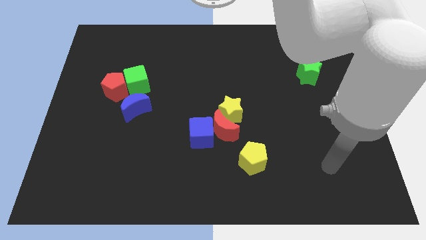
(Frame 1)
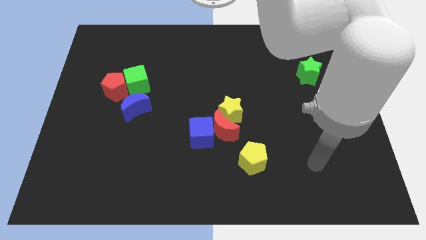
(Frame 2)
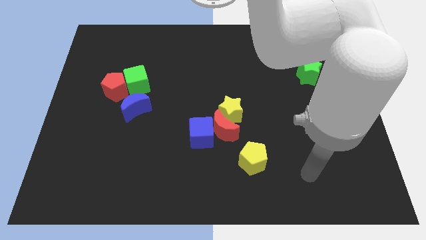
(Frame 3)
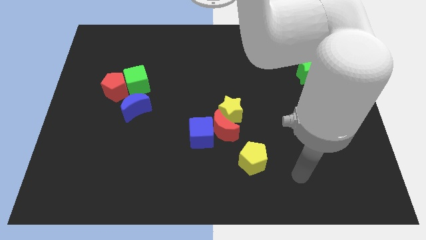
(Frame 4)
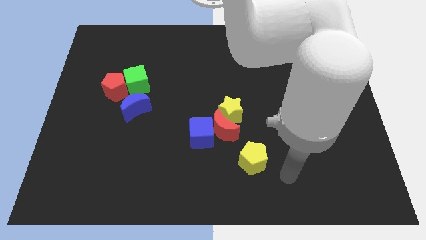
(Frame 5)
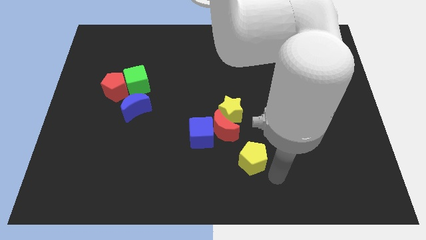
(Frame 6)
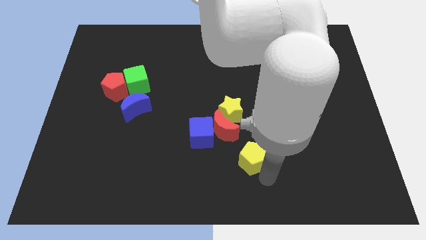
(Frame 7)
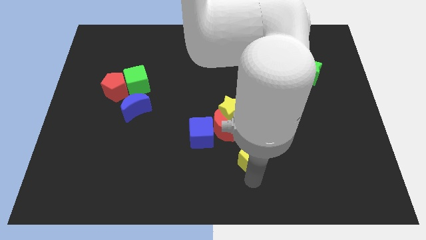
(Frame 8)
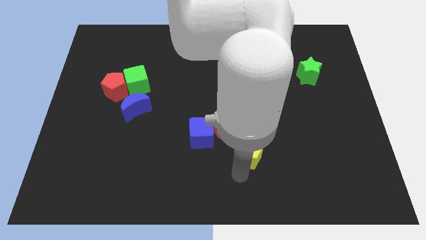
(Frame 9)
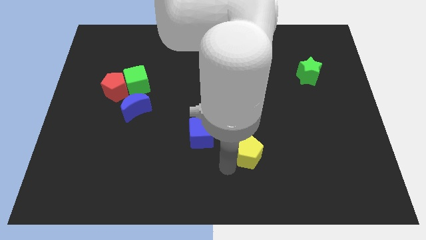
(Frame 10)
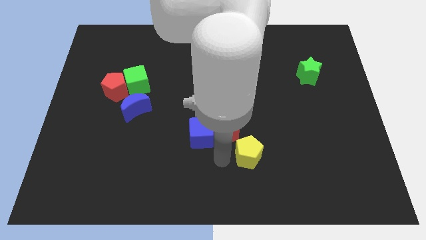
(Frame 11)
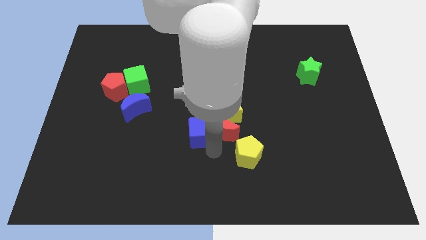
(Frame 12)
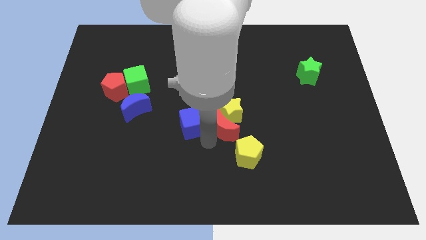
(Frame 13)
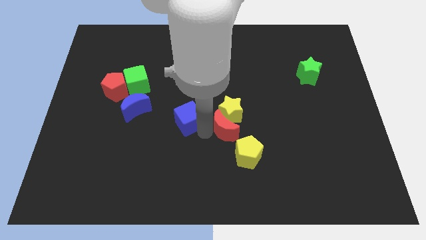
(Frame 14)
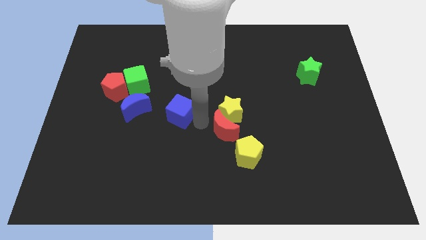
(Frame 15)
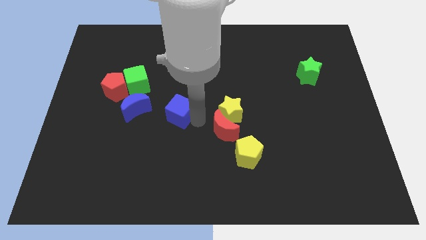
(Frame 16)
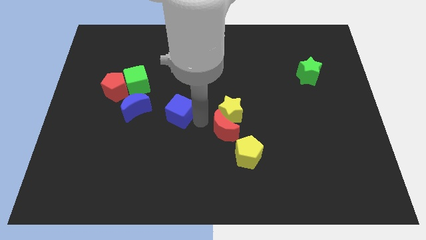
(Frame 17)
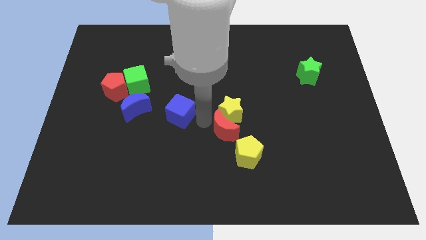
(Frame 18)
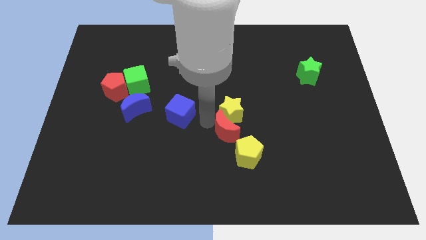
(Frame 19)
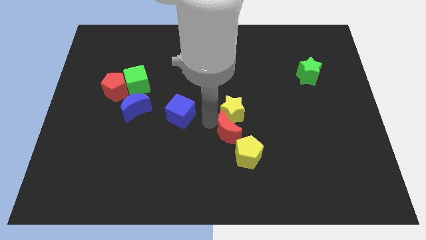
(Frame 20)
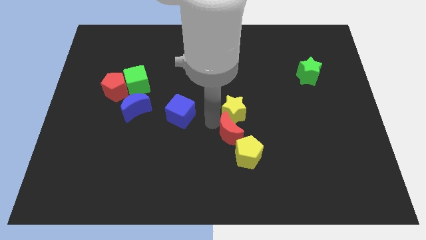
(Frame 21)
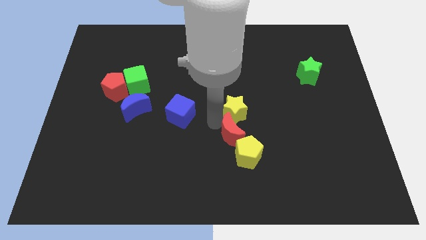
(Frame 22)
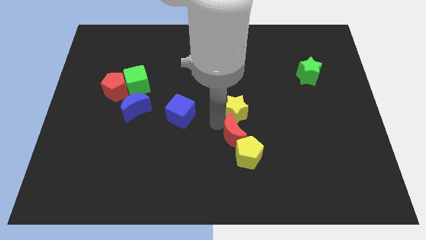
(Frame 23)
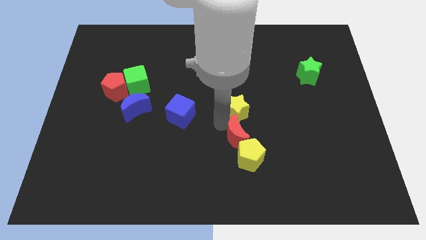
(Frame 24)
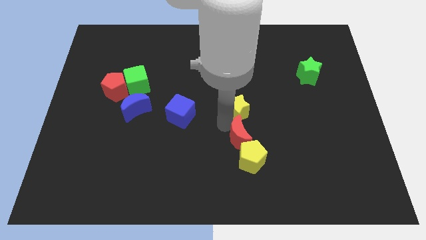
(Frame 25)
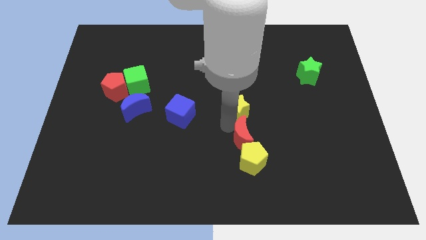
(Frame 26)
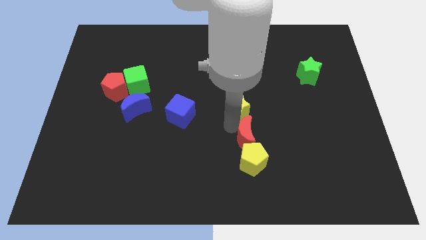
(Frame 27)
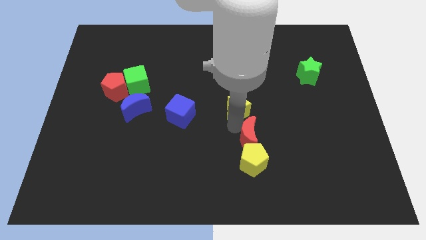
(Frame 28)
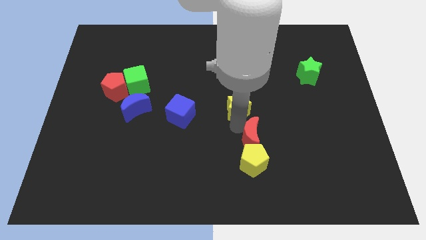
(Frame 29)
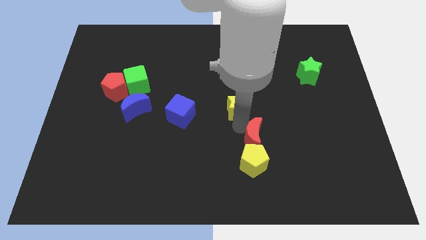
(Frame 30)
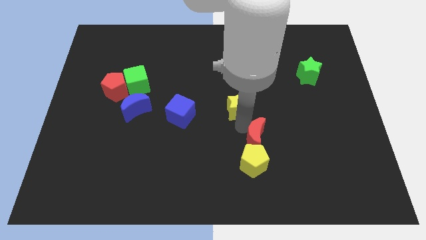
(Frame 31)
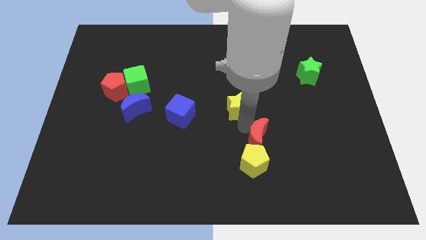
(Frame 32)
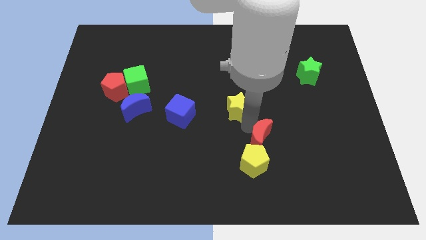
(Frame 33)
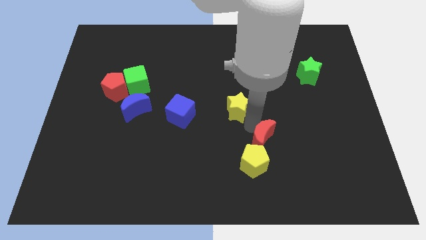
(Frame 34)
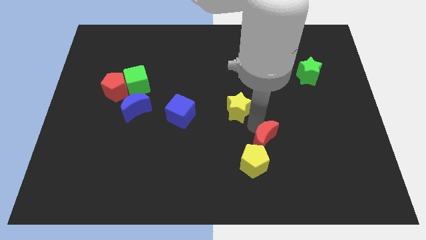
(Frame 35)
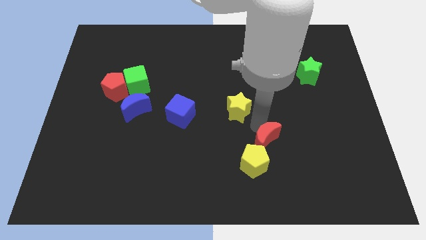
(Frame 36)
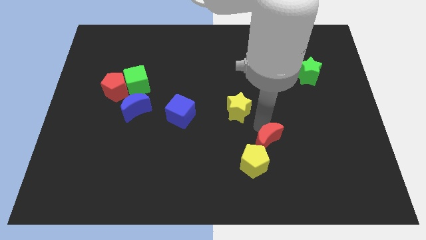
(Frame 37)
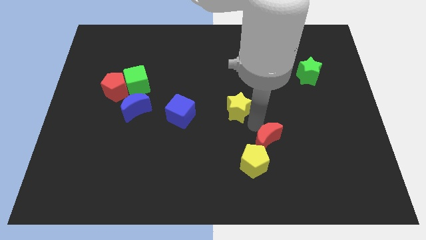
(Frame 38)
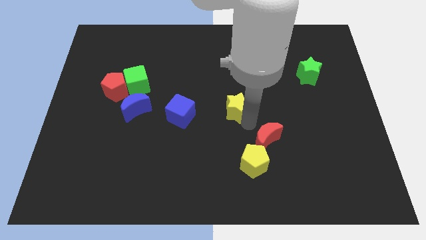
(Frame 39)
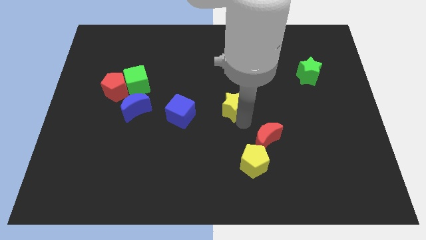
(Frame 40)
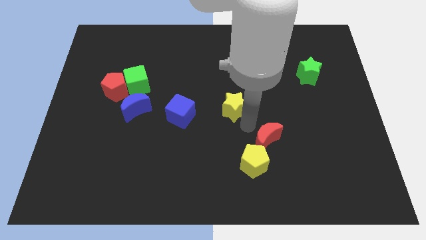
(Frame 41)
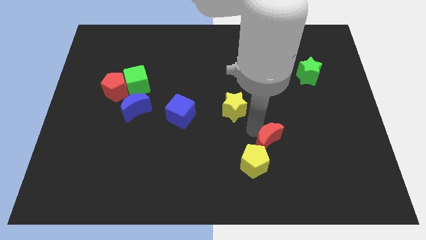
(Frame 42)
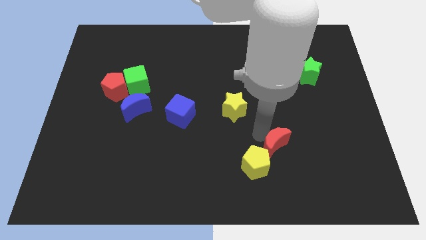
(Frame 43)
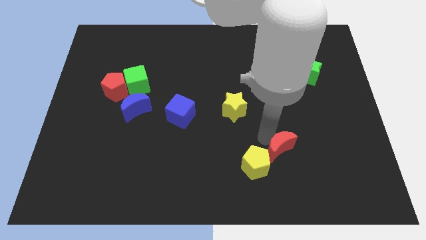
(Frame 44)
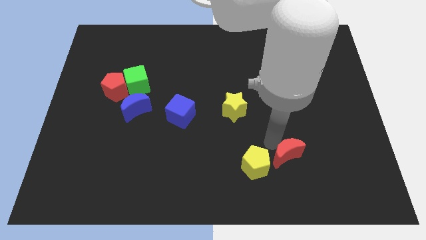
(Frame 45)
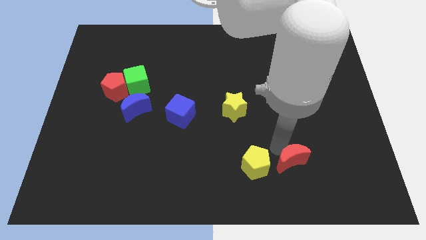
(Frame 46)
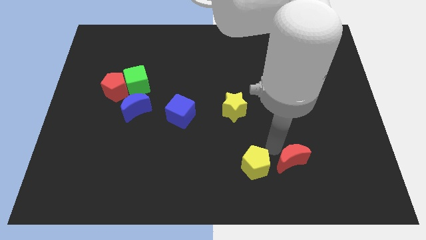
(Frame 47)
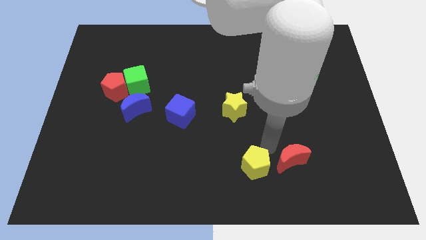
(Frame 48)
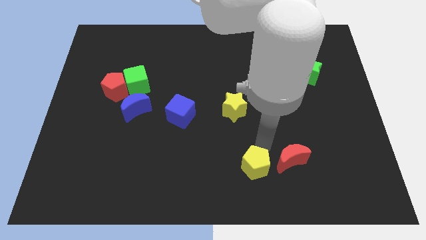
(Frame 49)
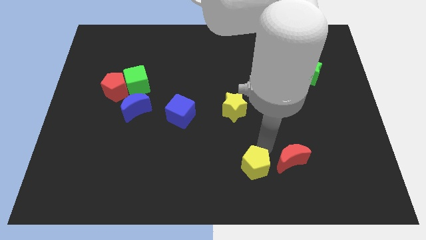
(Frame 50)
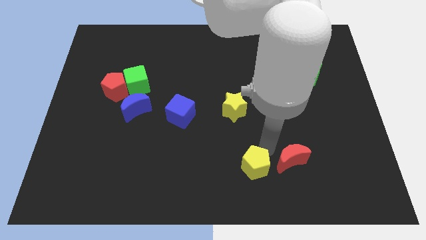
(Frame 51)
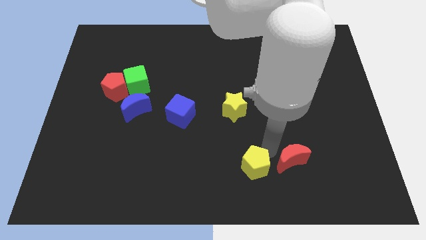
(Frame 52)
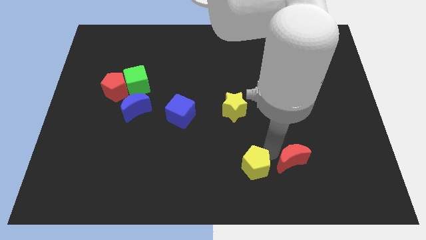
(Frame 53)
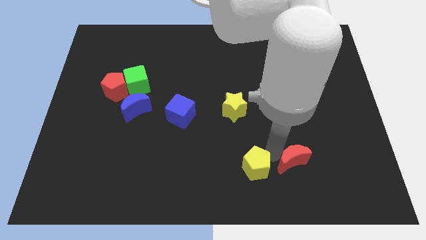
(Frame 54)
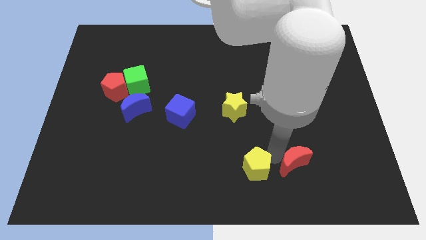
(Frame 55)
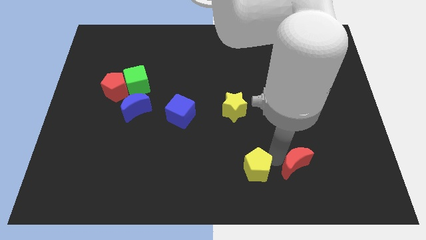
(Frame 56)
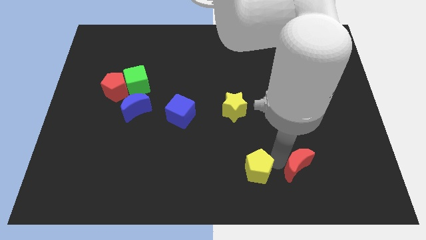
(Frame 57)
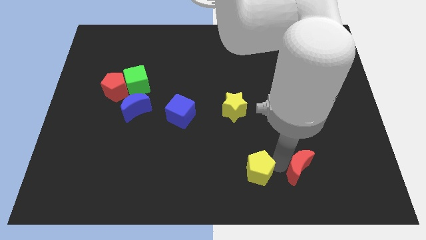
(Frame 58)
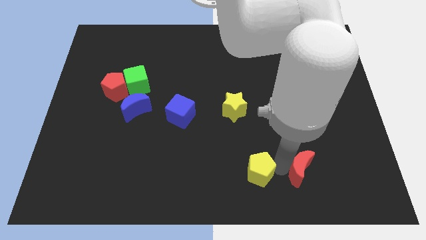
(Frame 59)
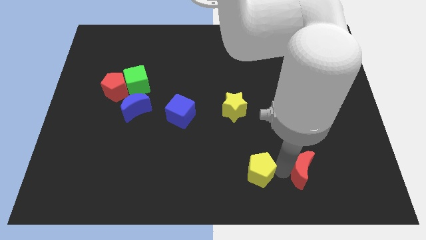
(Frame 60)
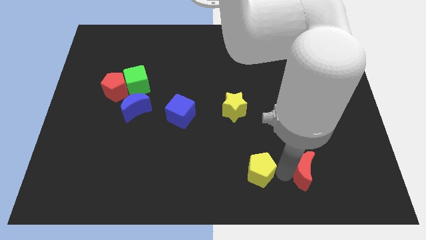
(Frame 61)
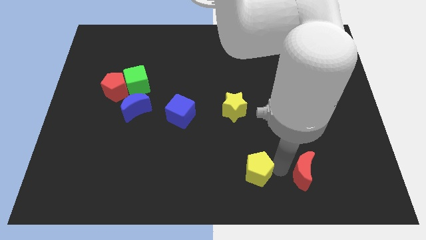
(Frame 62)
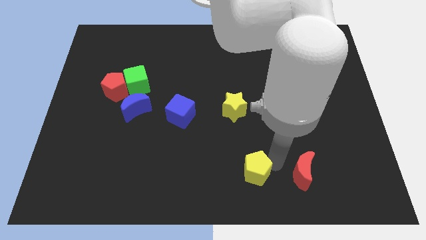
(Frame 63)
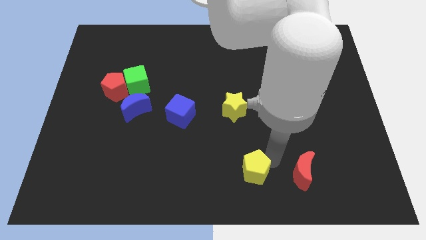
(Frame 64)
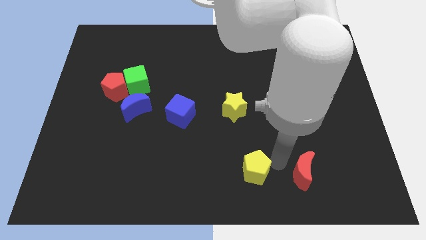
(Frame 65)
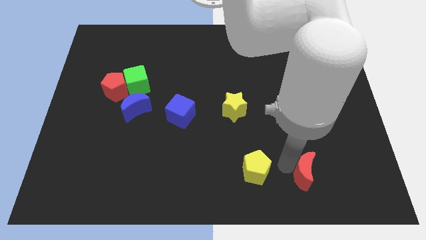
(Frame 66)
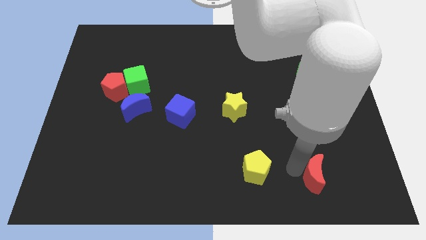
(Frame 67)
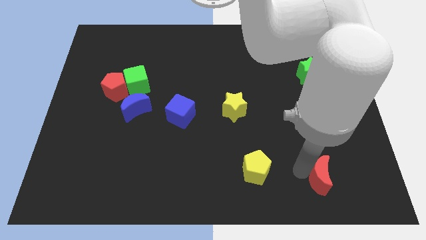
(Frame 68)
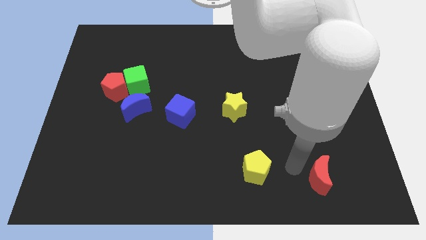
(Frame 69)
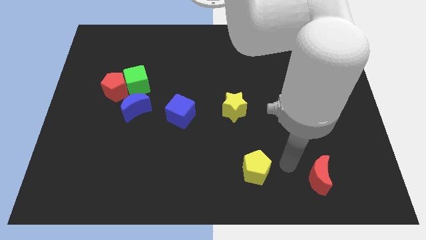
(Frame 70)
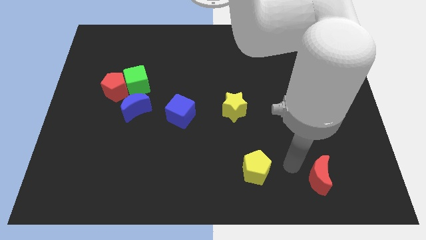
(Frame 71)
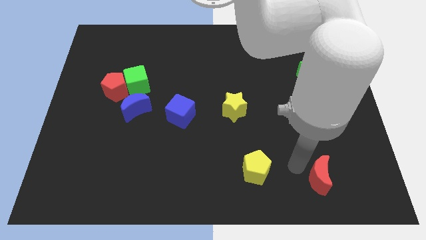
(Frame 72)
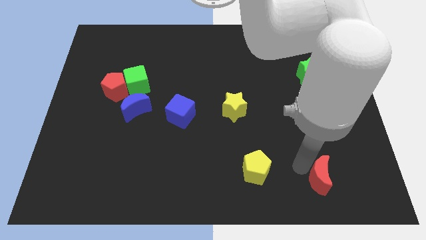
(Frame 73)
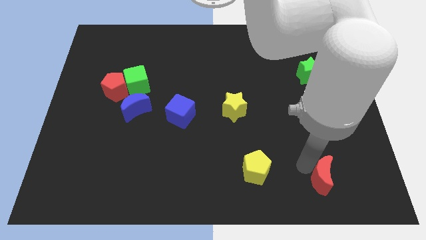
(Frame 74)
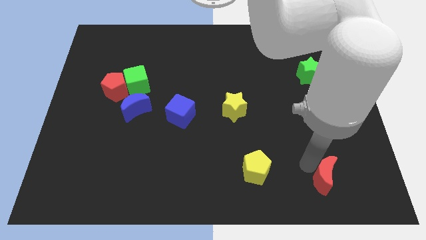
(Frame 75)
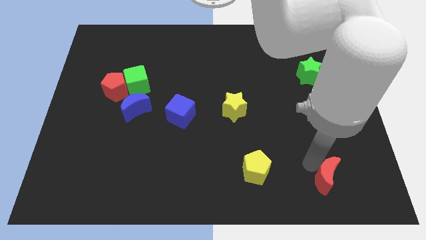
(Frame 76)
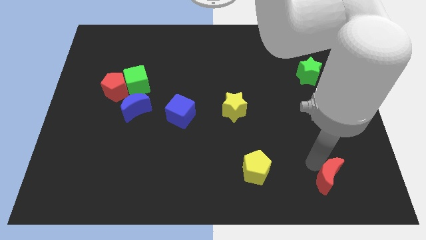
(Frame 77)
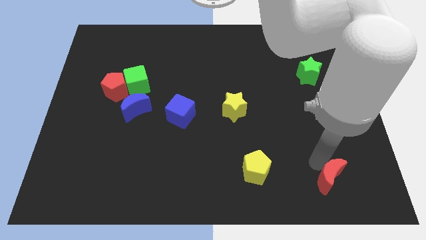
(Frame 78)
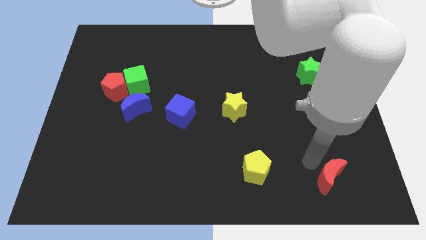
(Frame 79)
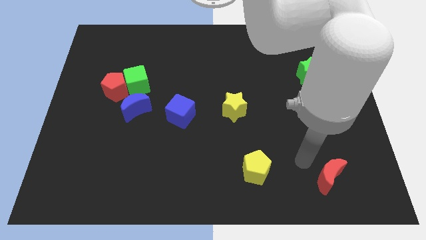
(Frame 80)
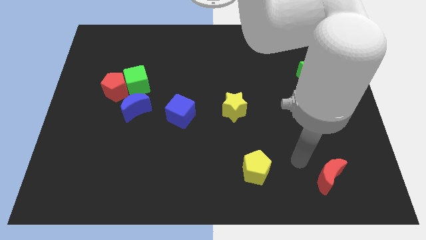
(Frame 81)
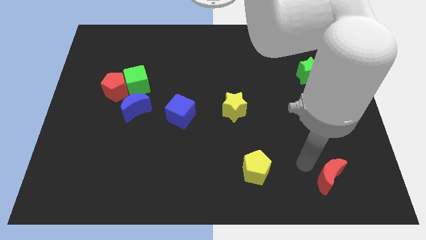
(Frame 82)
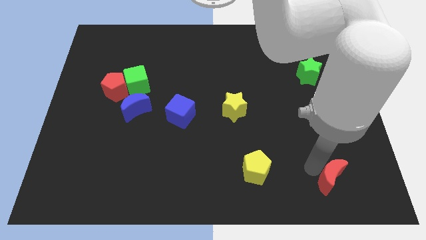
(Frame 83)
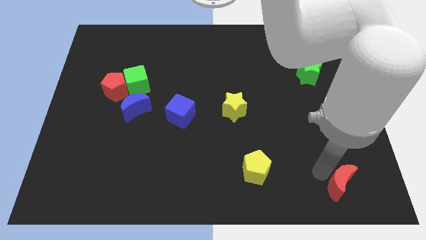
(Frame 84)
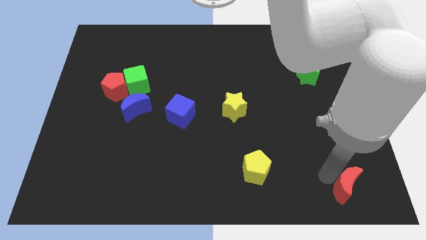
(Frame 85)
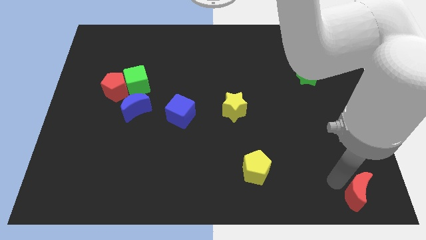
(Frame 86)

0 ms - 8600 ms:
put the red moon to the bottom right corner
